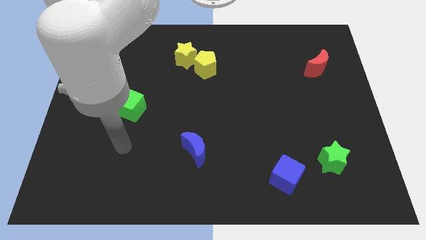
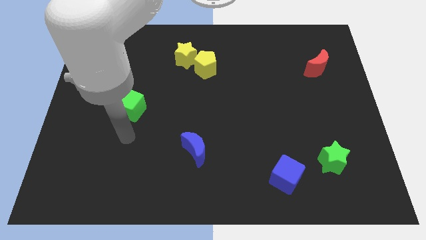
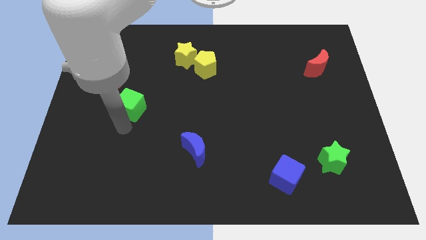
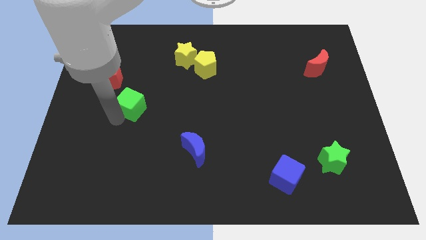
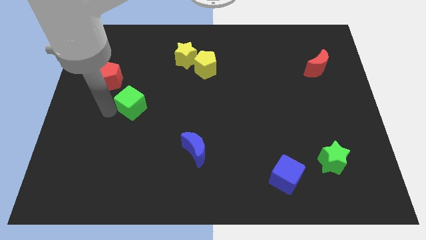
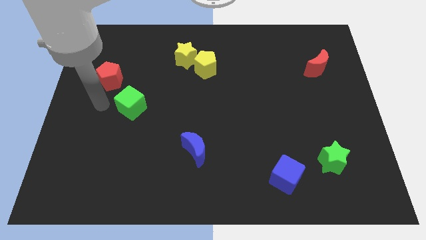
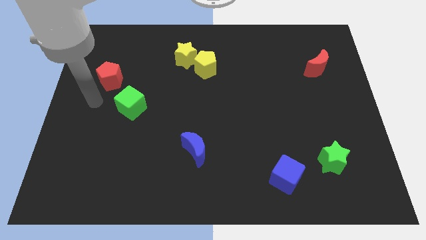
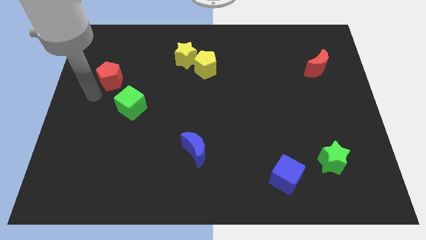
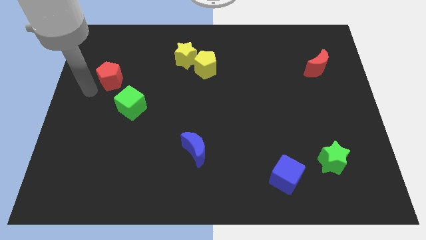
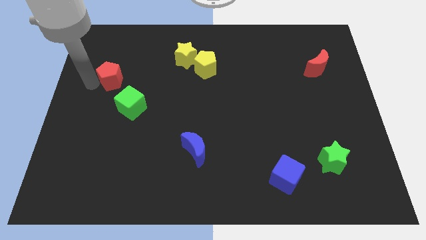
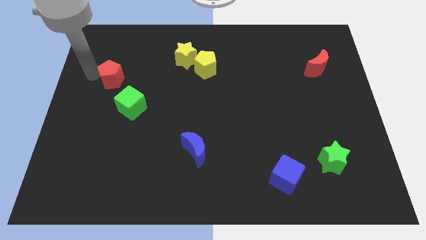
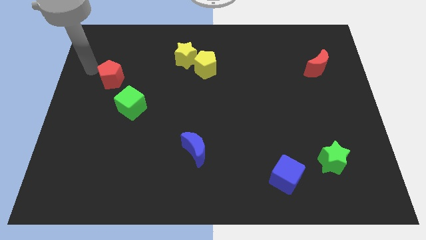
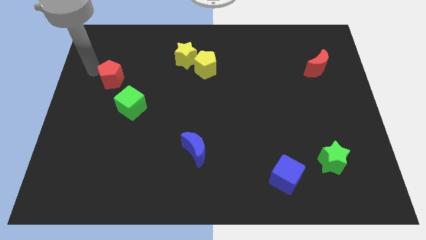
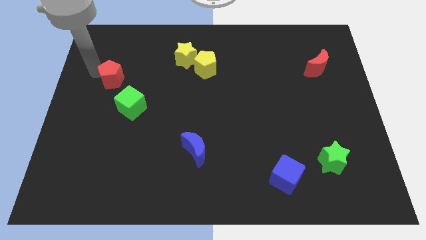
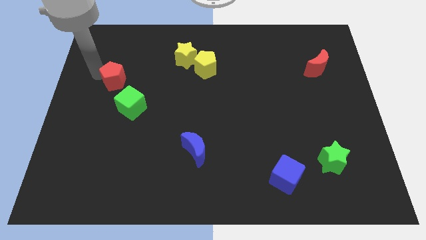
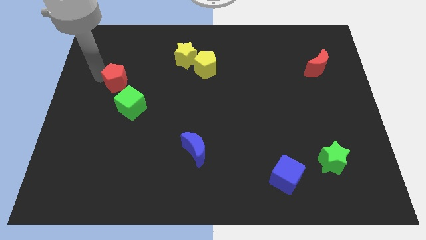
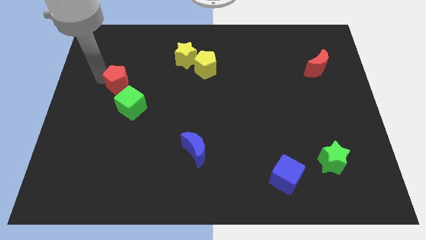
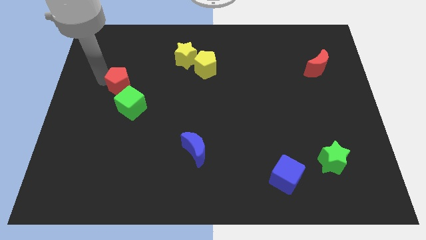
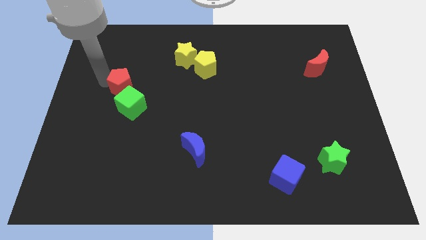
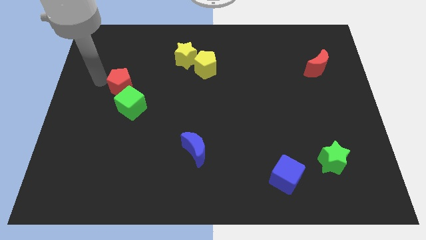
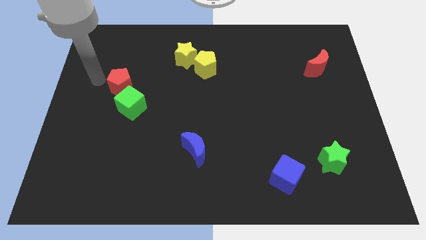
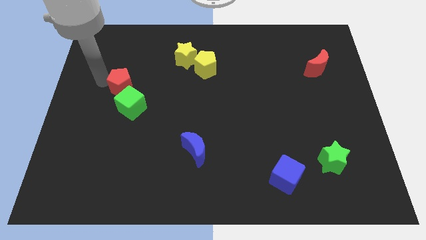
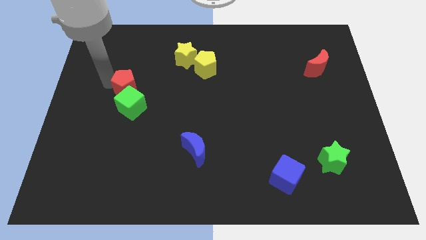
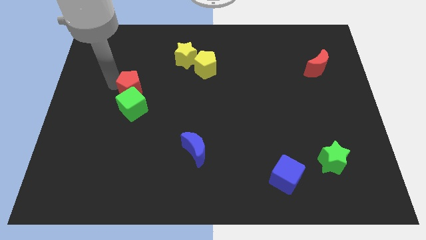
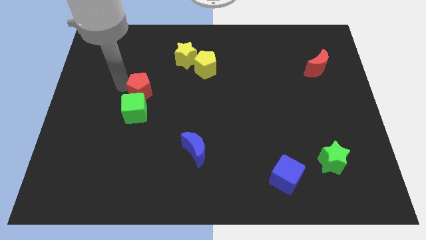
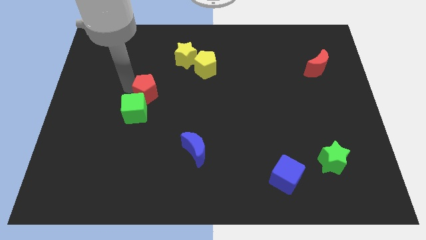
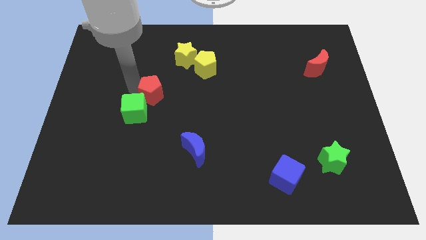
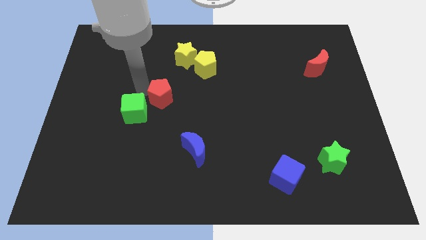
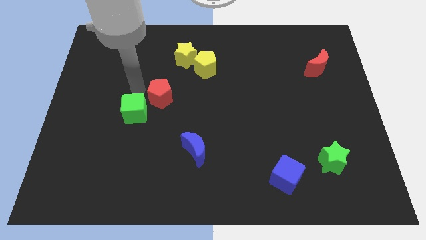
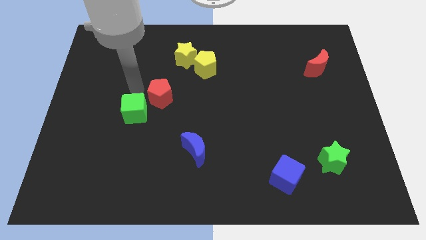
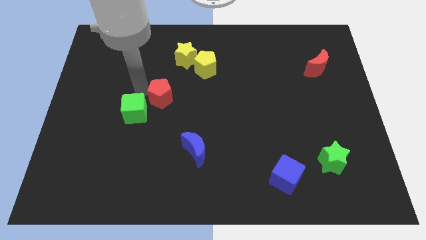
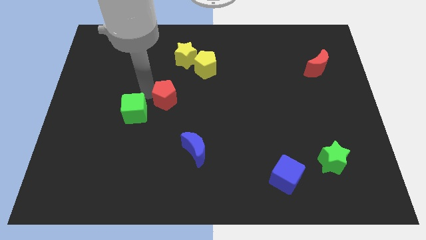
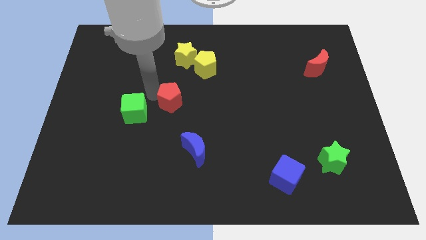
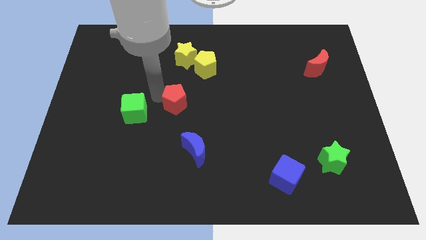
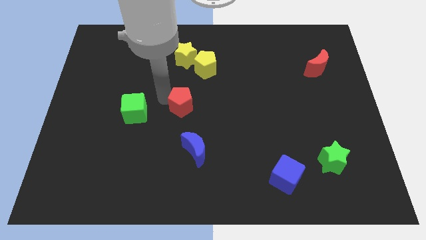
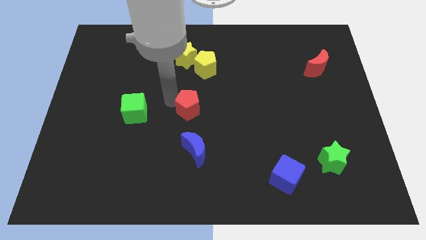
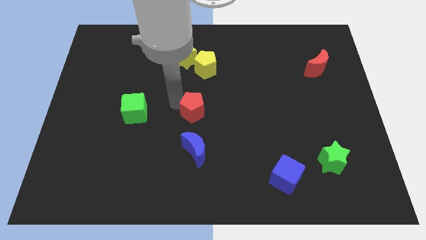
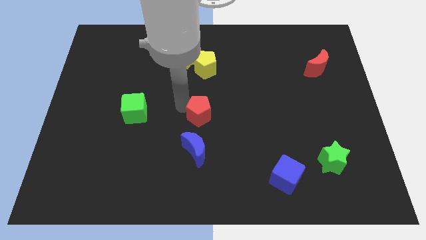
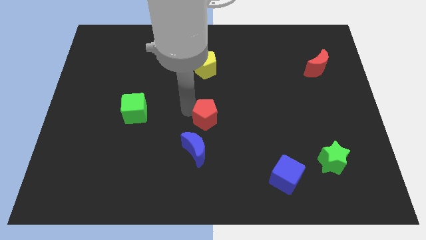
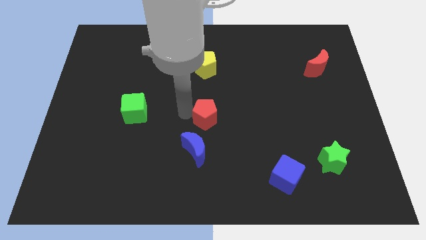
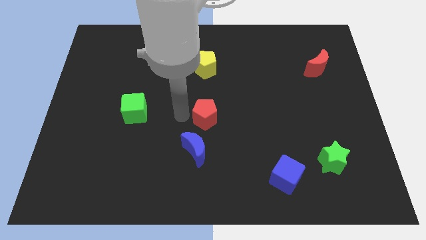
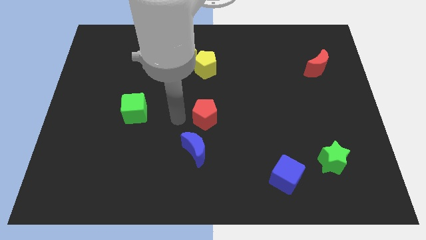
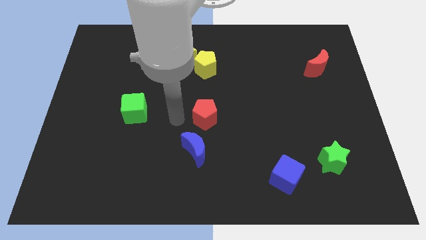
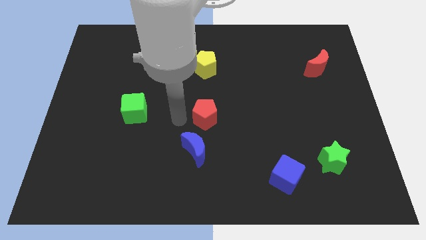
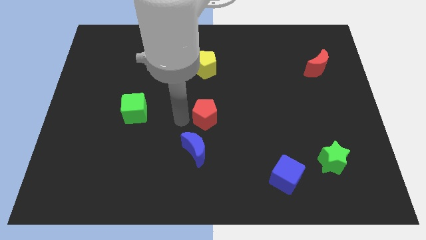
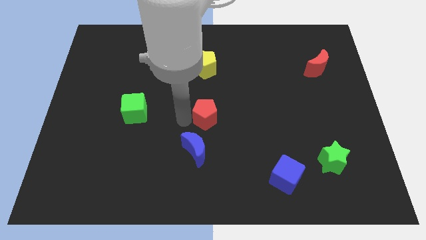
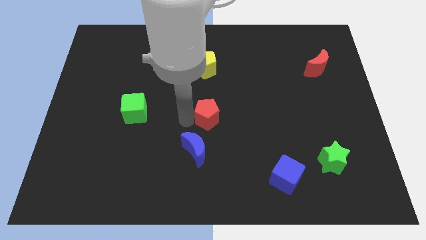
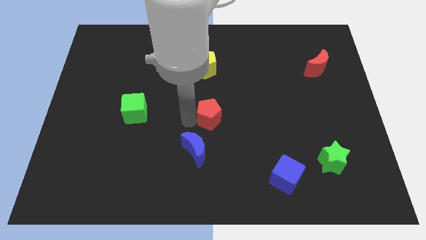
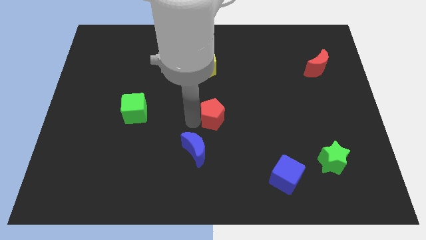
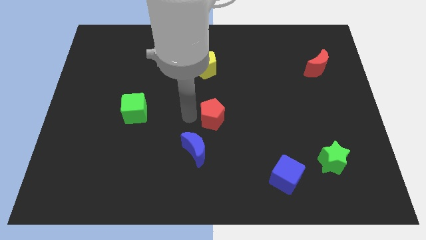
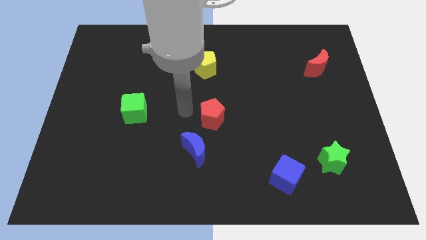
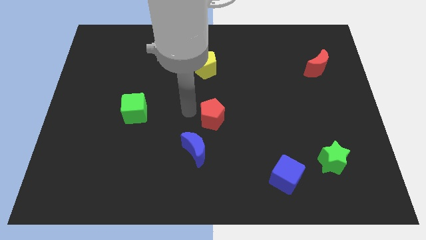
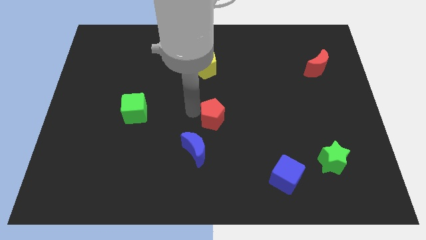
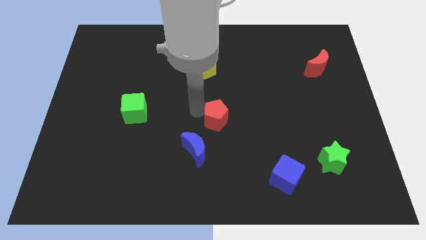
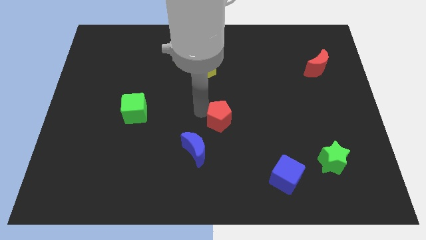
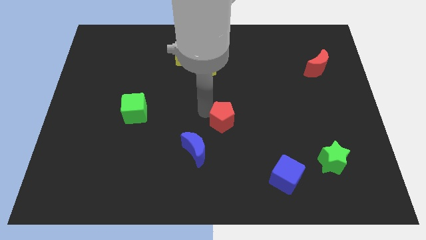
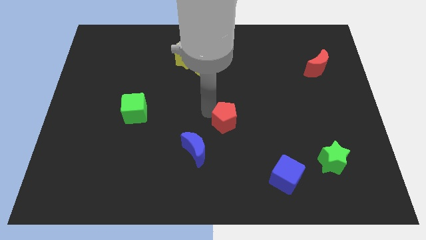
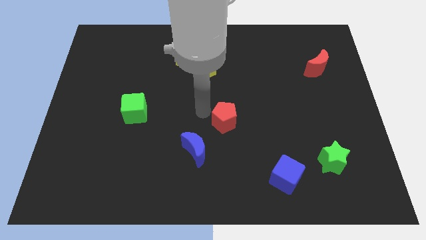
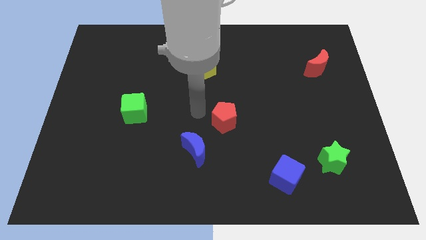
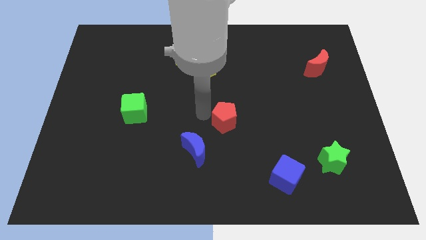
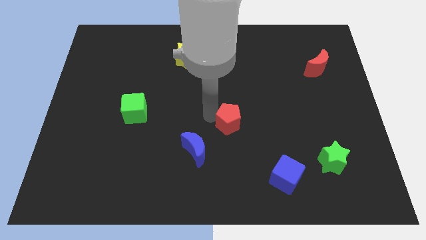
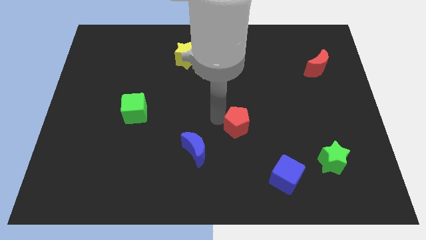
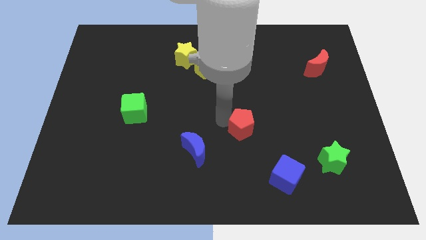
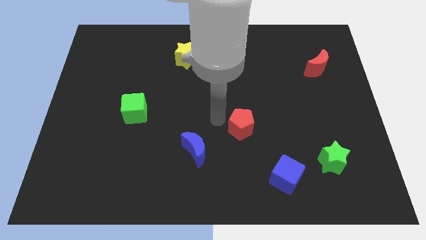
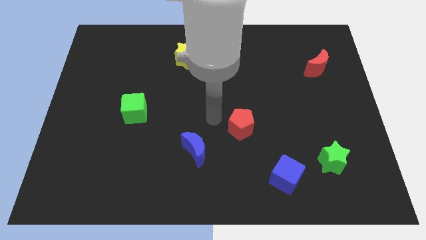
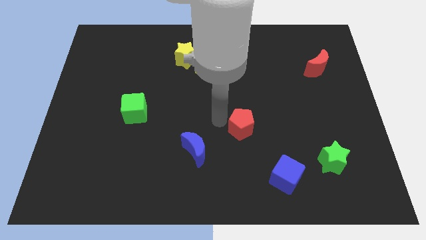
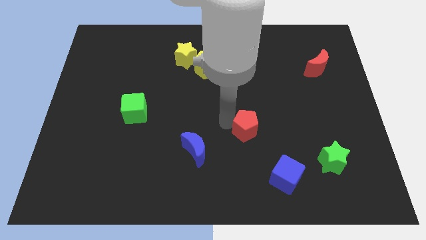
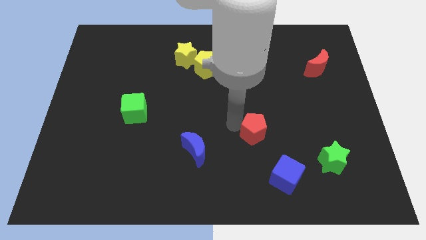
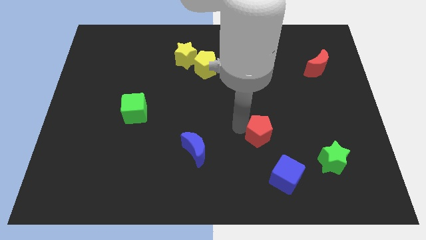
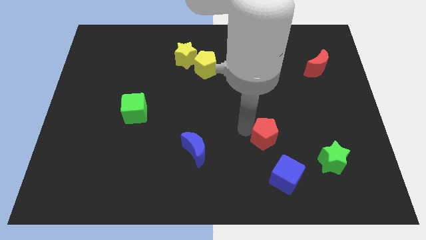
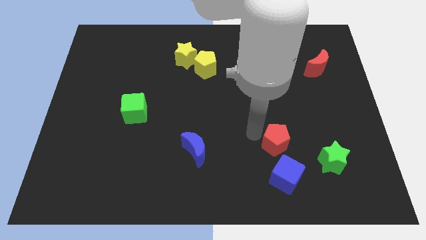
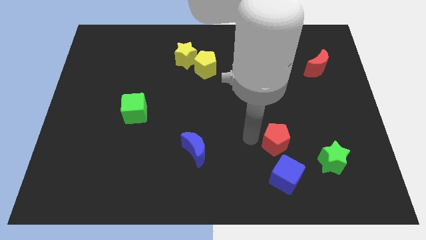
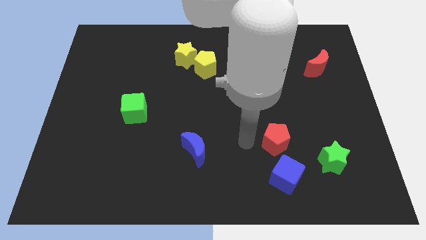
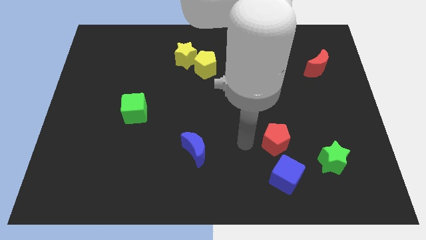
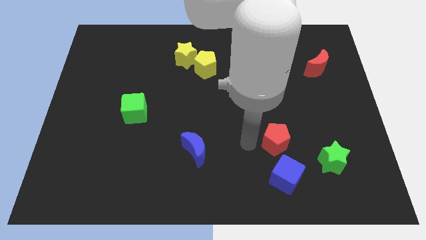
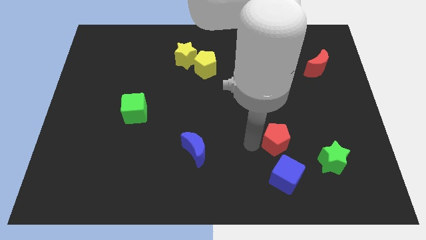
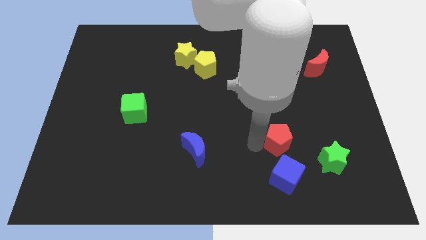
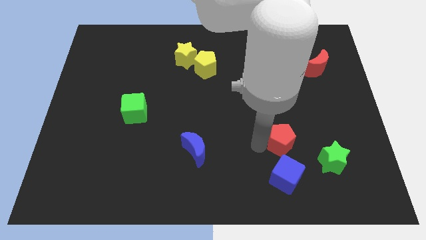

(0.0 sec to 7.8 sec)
push the red pentagon diagonally up and to the left of the green star
